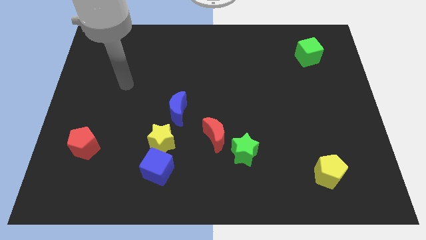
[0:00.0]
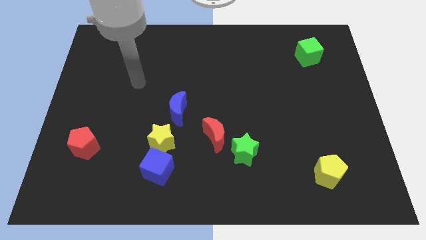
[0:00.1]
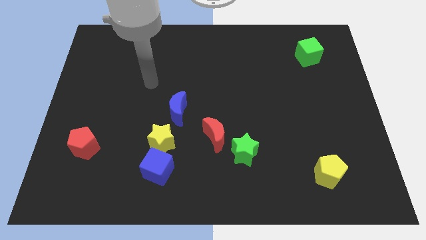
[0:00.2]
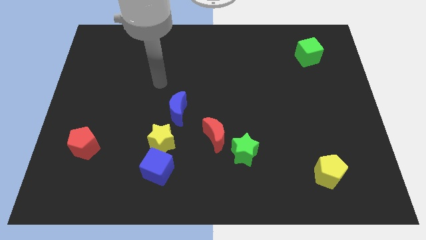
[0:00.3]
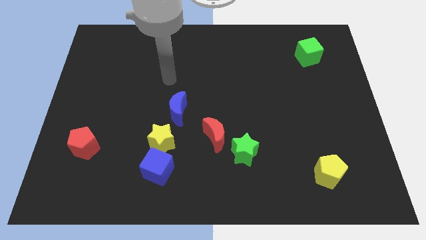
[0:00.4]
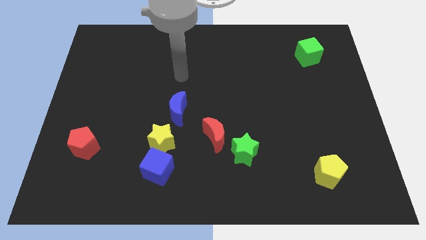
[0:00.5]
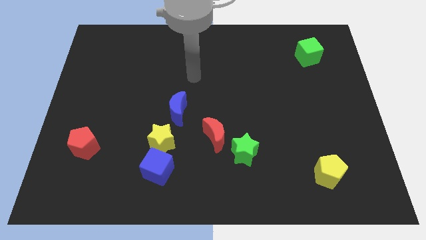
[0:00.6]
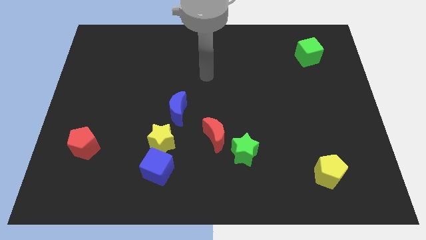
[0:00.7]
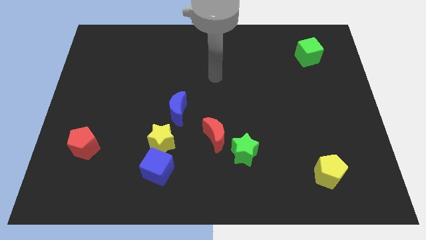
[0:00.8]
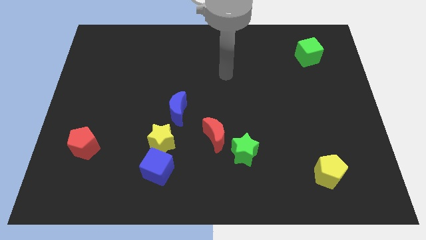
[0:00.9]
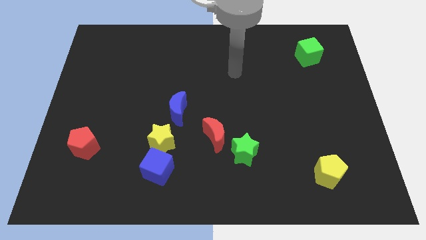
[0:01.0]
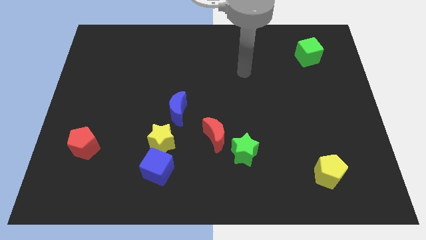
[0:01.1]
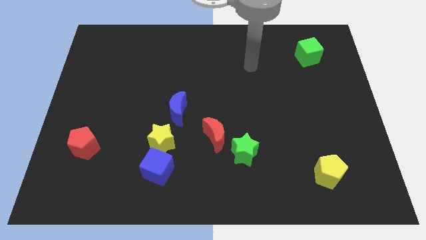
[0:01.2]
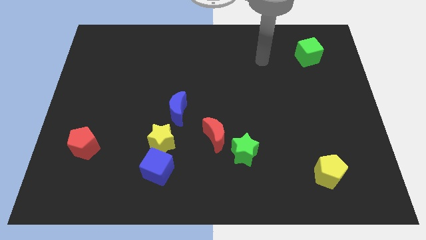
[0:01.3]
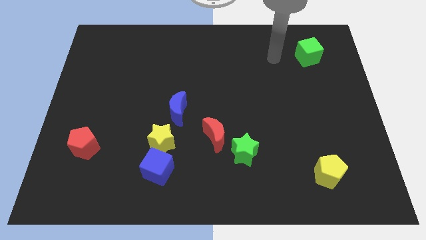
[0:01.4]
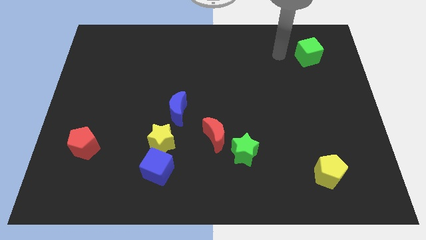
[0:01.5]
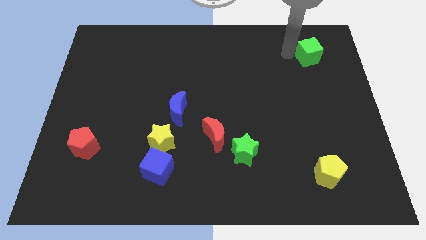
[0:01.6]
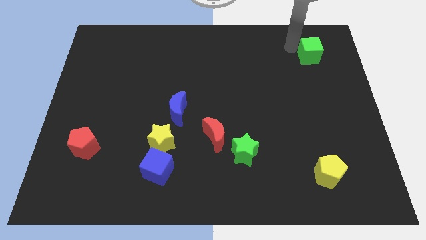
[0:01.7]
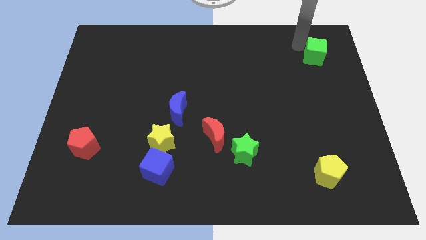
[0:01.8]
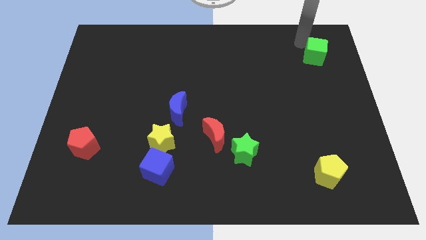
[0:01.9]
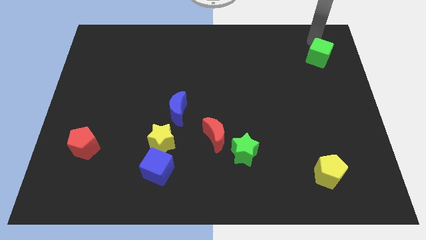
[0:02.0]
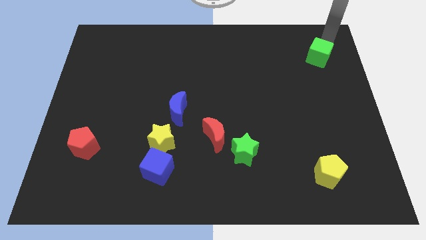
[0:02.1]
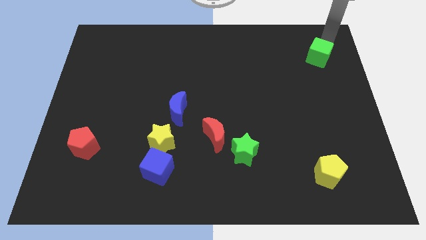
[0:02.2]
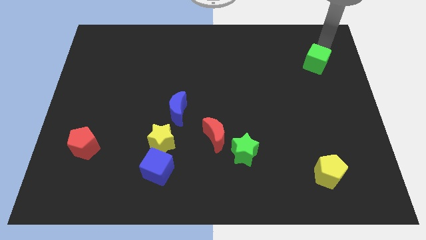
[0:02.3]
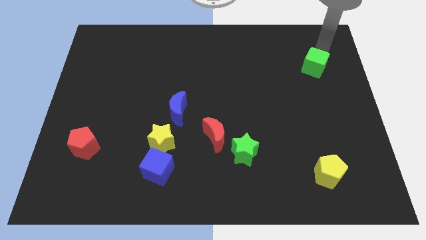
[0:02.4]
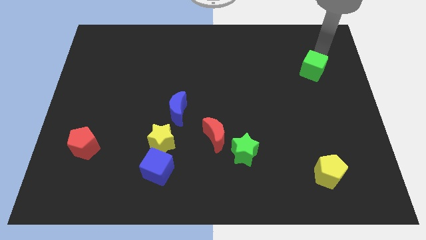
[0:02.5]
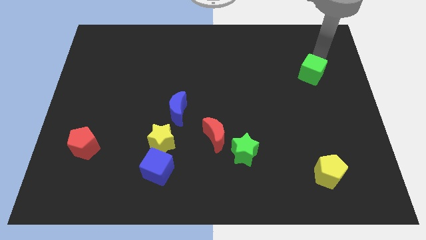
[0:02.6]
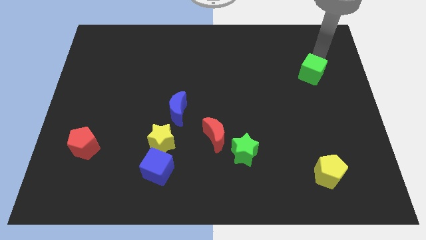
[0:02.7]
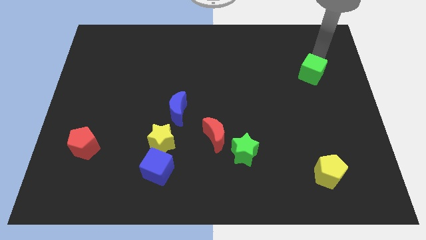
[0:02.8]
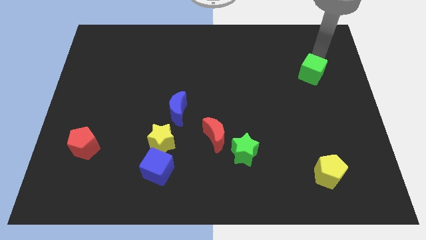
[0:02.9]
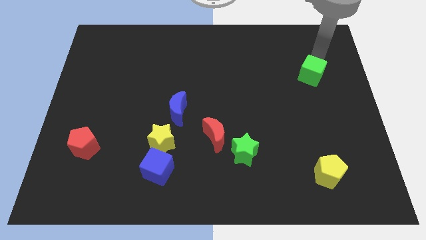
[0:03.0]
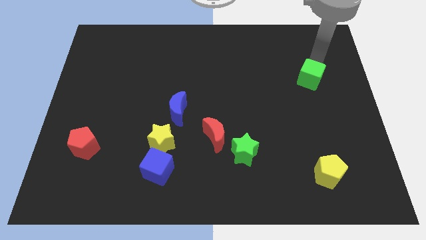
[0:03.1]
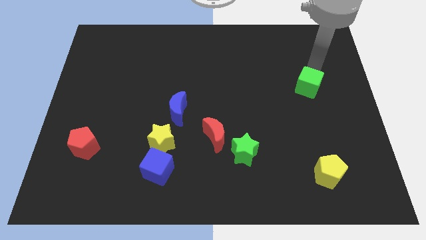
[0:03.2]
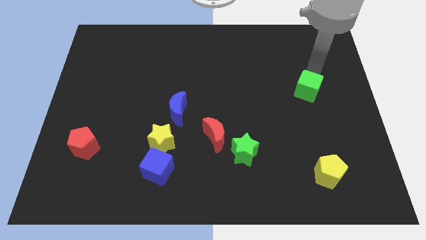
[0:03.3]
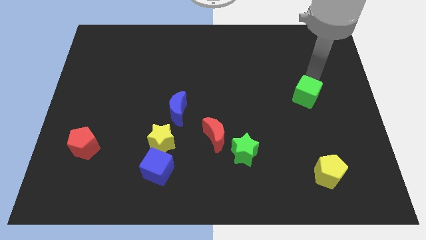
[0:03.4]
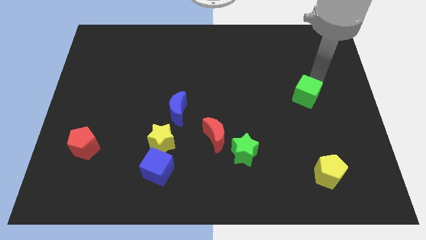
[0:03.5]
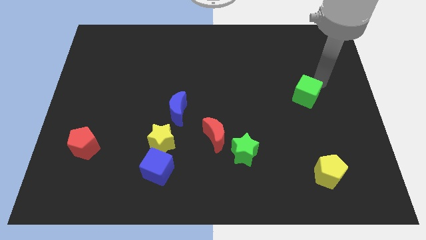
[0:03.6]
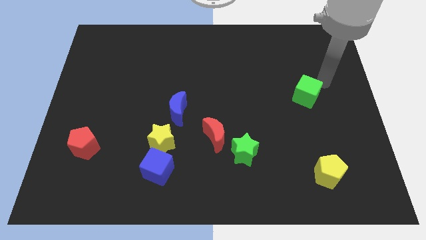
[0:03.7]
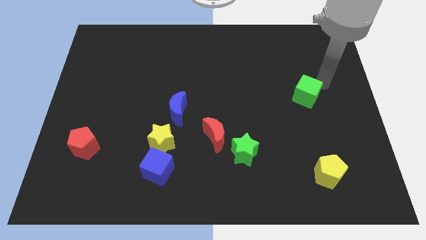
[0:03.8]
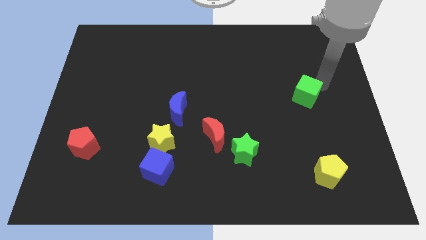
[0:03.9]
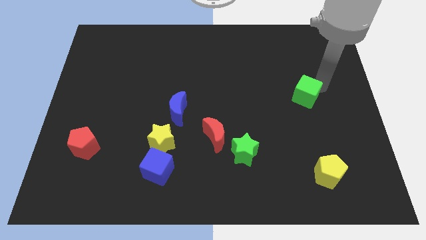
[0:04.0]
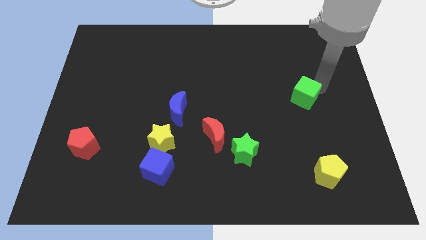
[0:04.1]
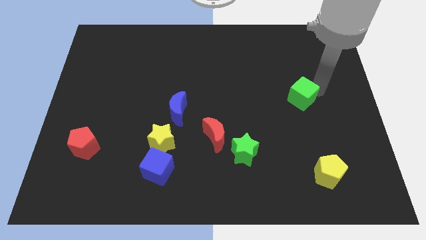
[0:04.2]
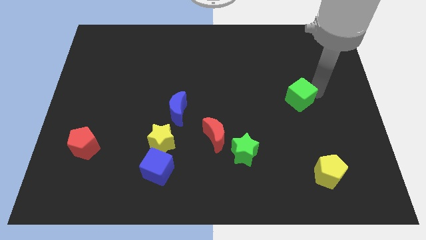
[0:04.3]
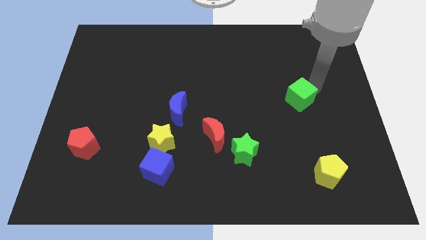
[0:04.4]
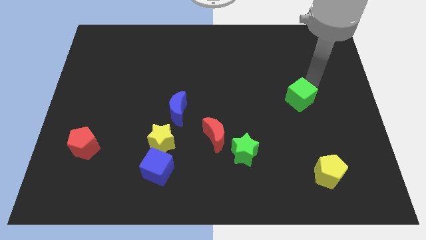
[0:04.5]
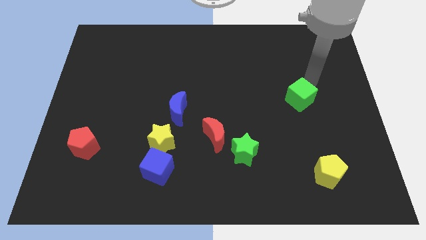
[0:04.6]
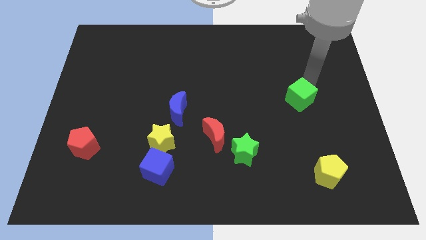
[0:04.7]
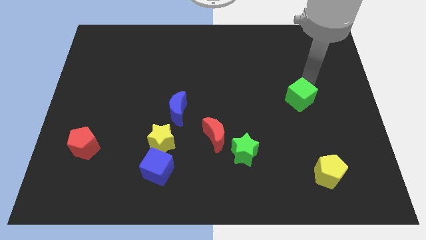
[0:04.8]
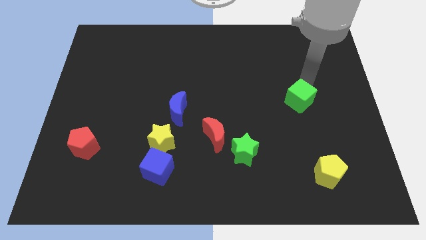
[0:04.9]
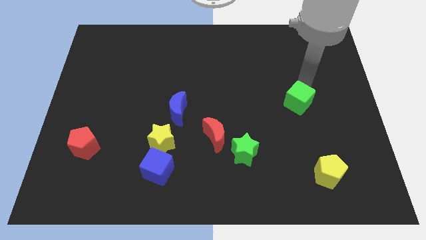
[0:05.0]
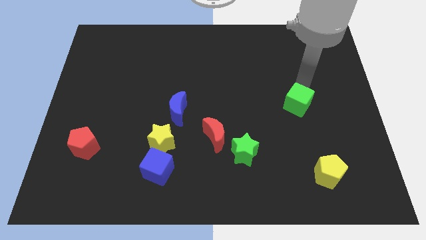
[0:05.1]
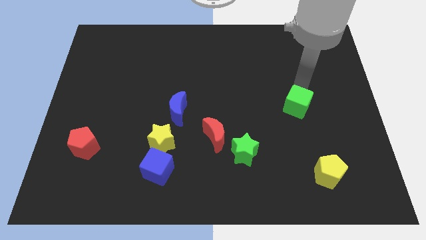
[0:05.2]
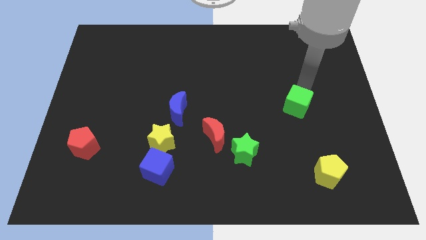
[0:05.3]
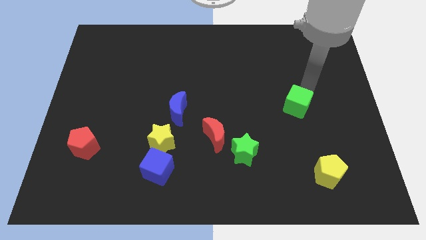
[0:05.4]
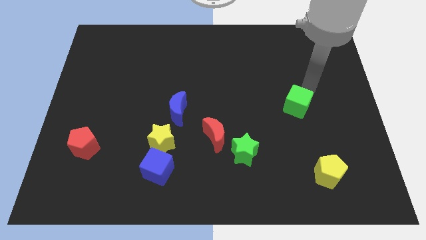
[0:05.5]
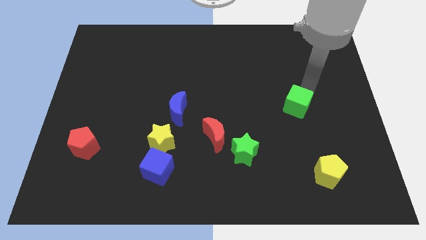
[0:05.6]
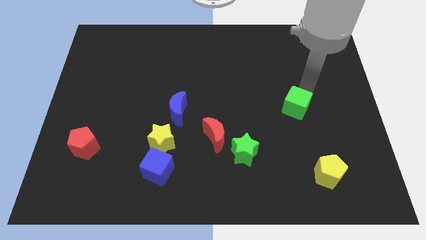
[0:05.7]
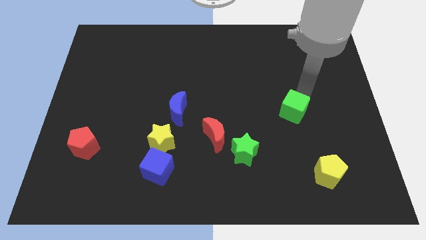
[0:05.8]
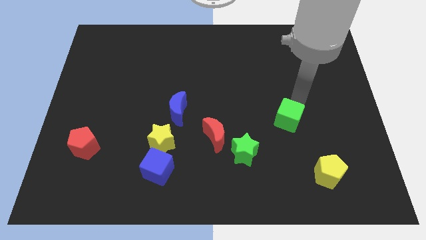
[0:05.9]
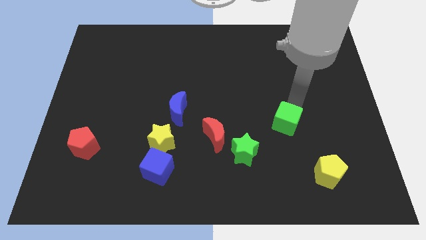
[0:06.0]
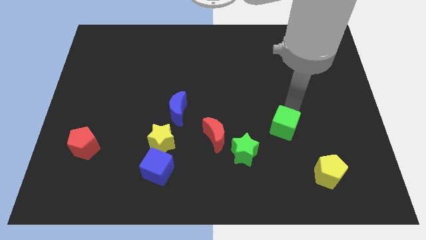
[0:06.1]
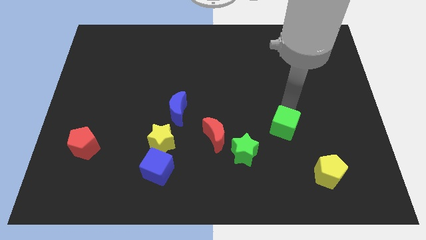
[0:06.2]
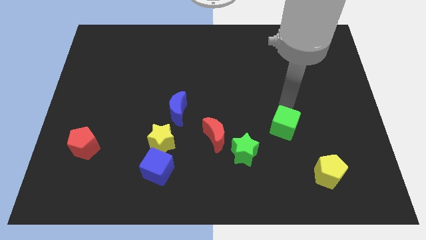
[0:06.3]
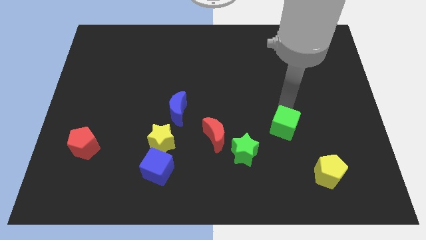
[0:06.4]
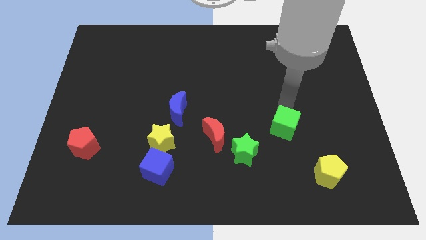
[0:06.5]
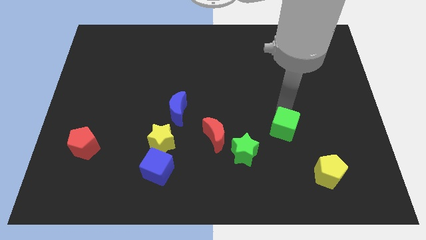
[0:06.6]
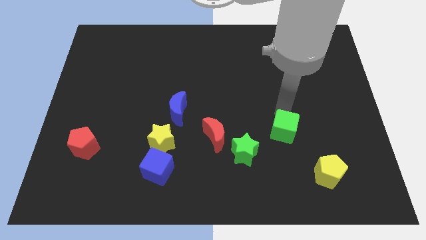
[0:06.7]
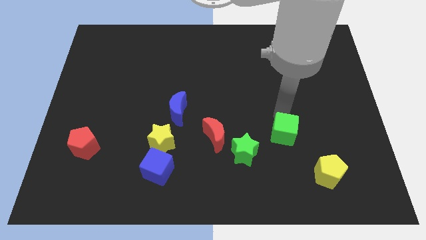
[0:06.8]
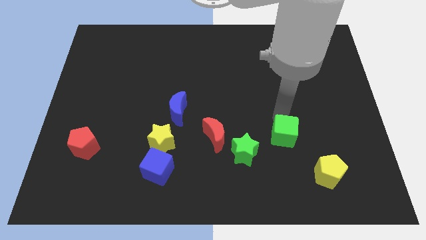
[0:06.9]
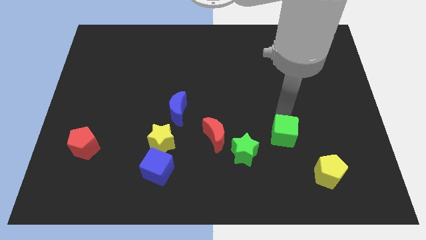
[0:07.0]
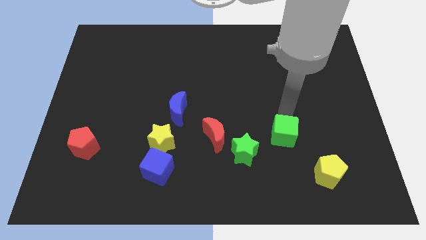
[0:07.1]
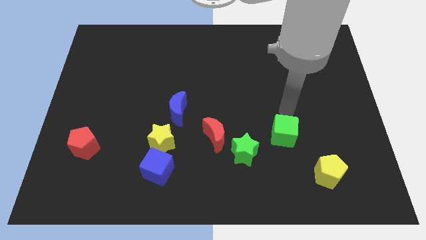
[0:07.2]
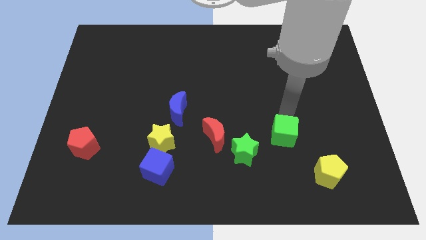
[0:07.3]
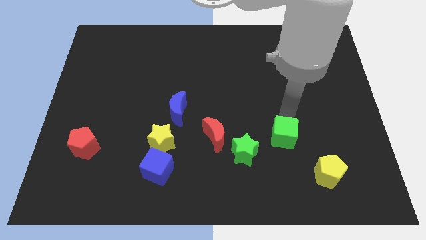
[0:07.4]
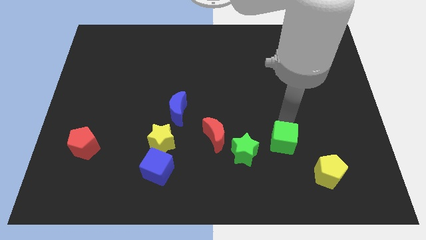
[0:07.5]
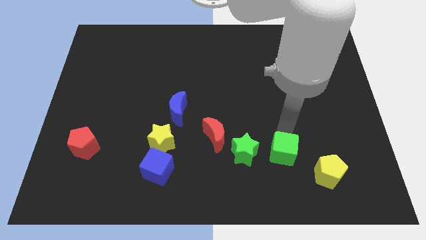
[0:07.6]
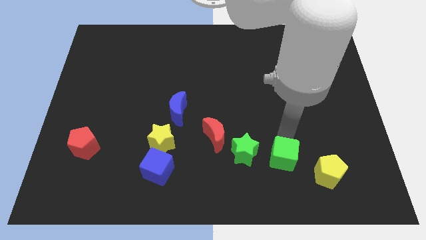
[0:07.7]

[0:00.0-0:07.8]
move the green cube left of the yellow pentagon

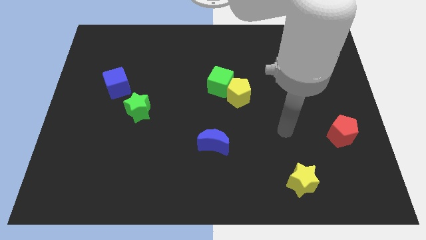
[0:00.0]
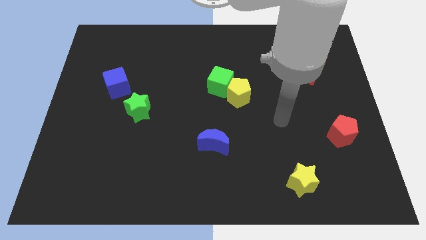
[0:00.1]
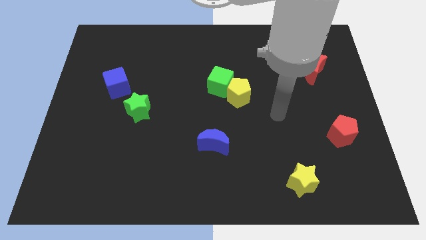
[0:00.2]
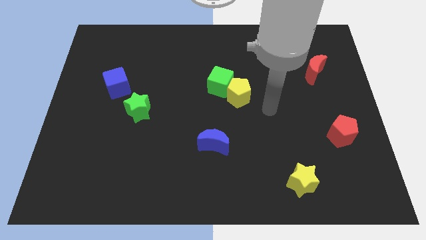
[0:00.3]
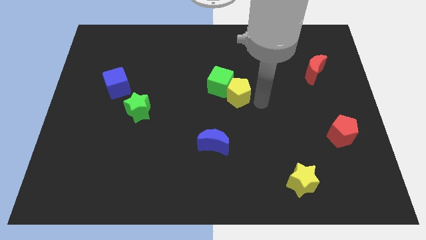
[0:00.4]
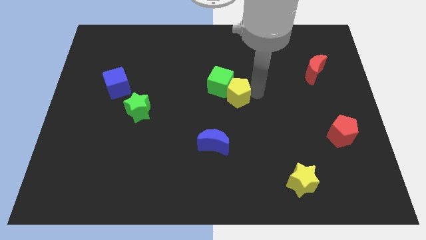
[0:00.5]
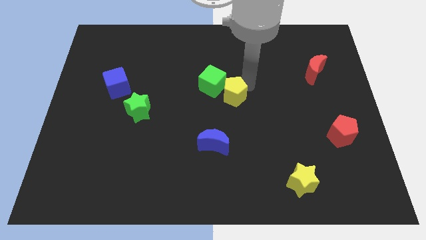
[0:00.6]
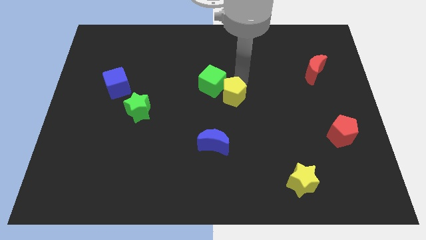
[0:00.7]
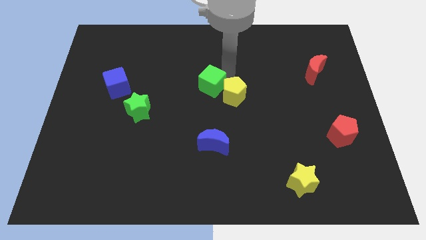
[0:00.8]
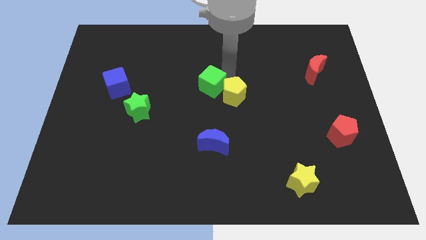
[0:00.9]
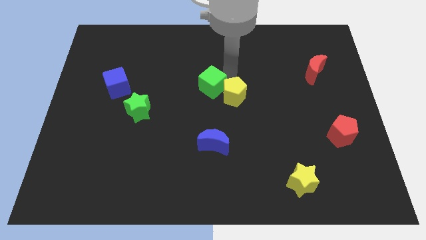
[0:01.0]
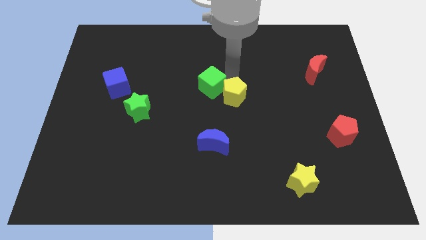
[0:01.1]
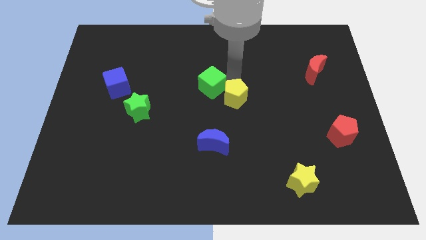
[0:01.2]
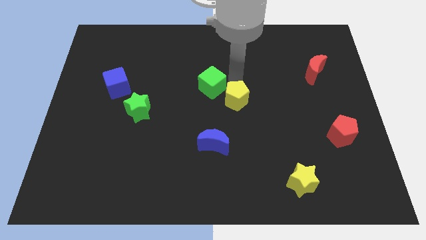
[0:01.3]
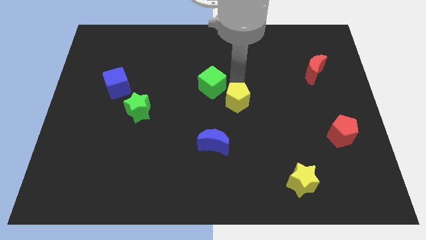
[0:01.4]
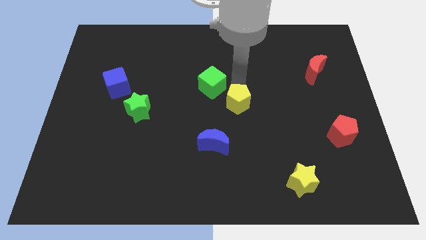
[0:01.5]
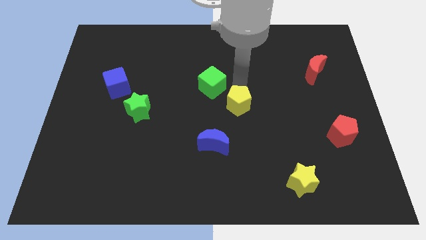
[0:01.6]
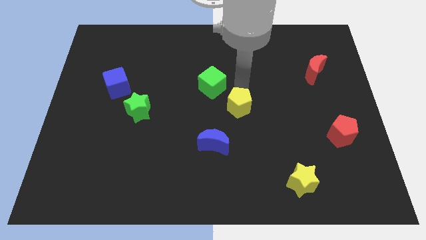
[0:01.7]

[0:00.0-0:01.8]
push the yellow pentagon diagonally up and to the right of the blue moon
